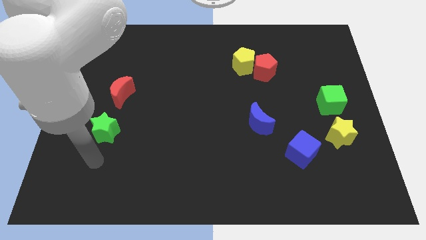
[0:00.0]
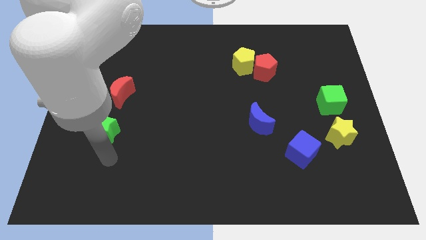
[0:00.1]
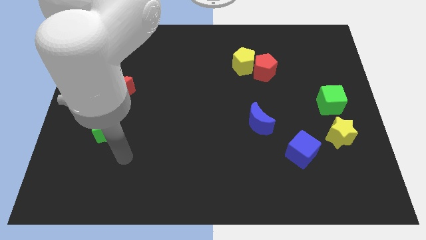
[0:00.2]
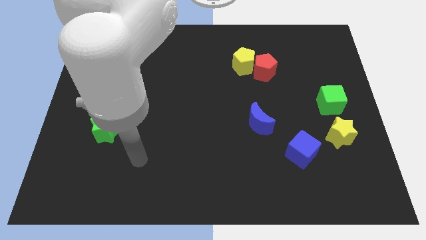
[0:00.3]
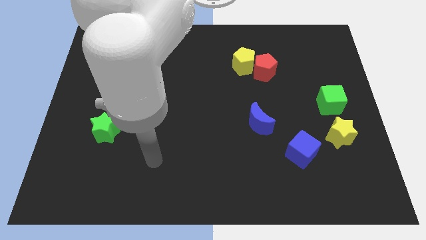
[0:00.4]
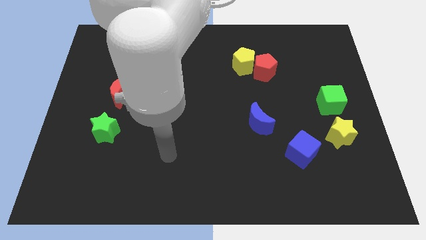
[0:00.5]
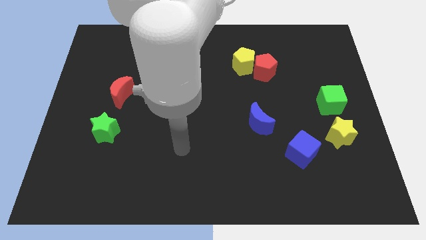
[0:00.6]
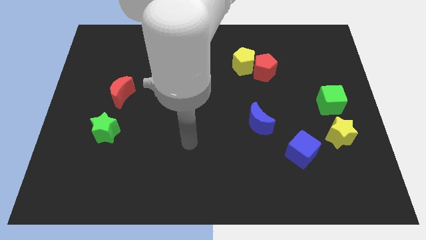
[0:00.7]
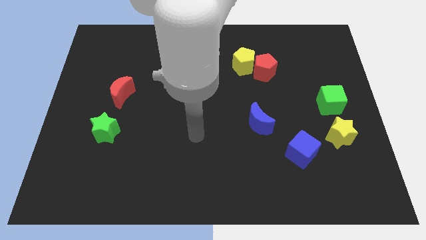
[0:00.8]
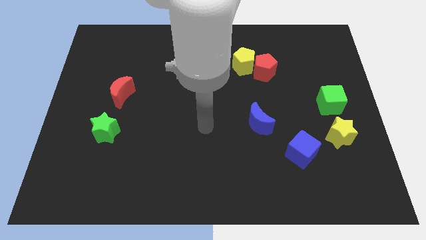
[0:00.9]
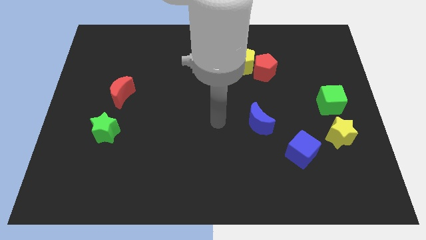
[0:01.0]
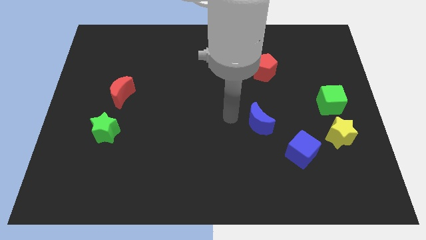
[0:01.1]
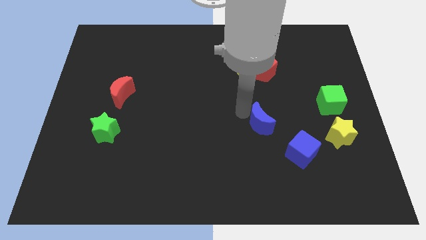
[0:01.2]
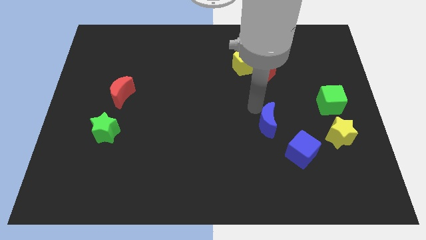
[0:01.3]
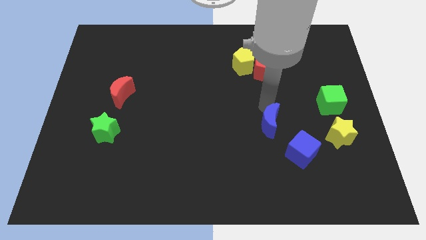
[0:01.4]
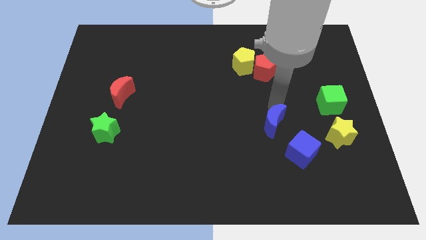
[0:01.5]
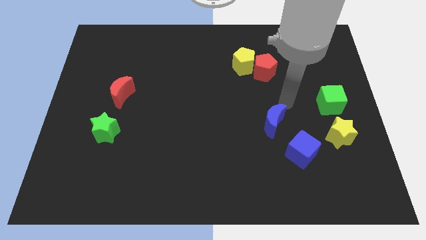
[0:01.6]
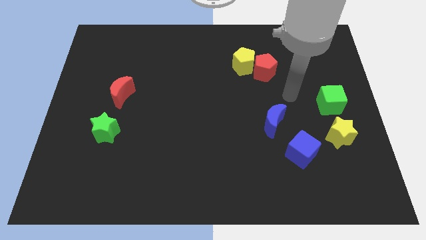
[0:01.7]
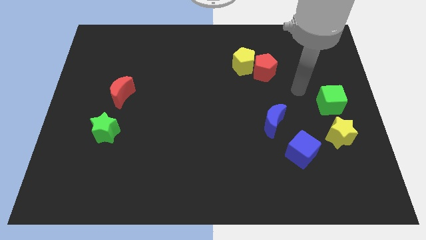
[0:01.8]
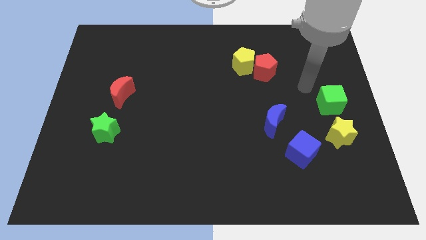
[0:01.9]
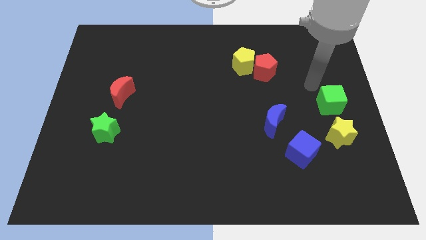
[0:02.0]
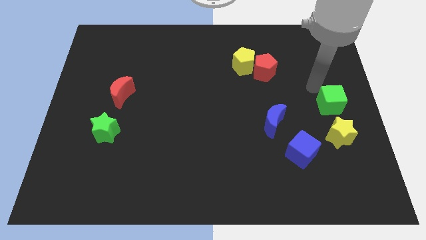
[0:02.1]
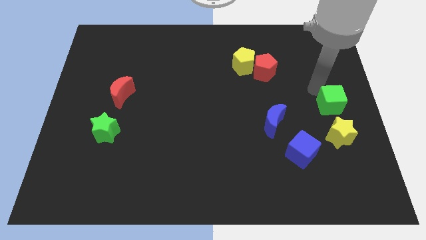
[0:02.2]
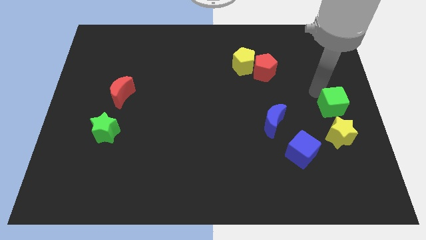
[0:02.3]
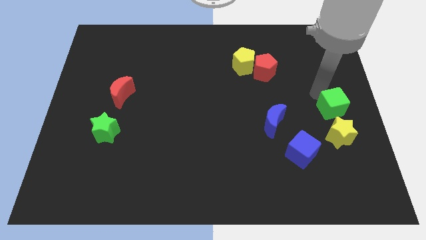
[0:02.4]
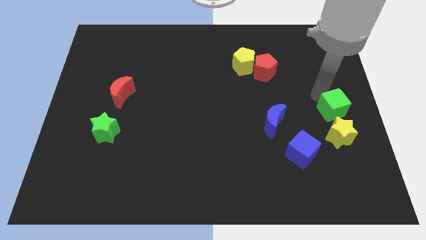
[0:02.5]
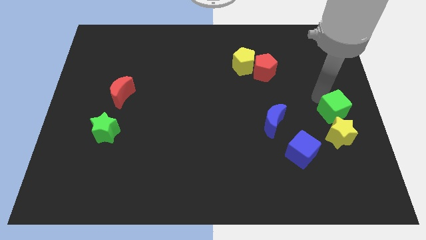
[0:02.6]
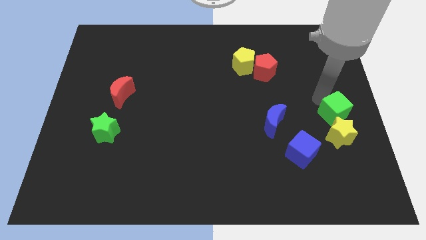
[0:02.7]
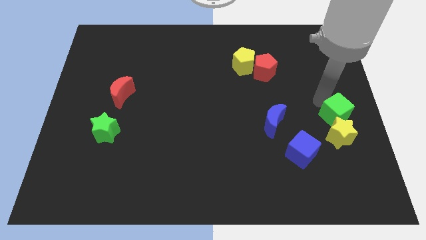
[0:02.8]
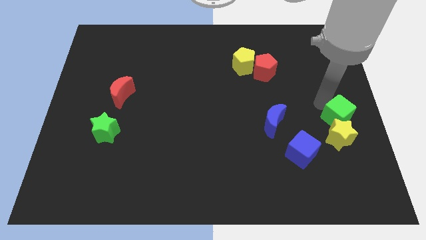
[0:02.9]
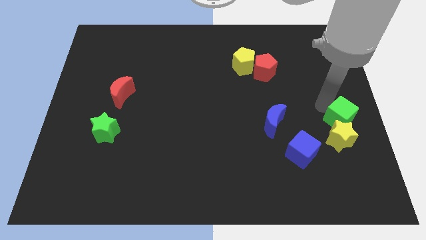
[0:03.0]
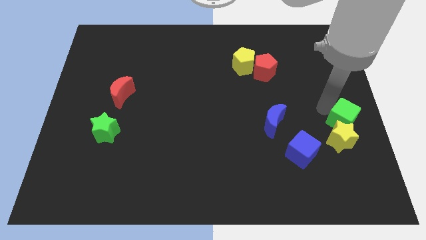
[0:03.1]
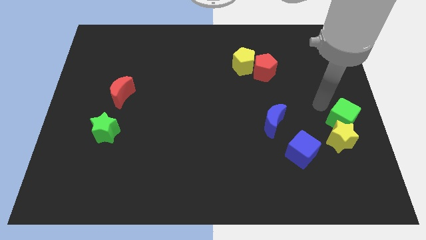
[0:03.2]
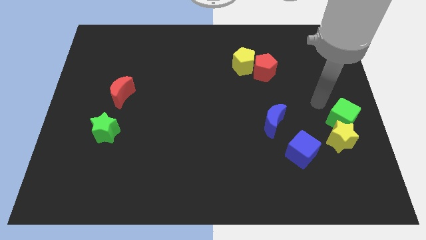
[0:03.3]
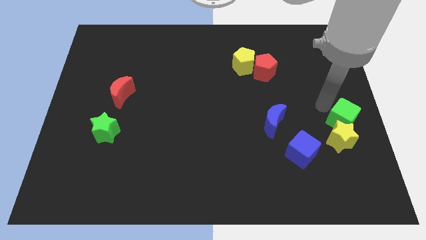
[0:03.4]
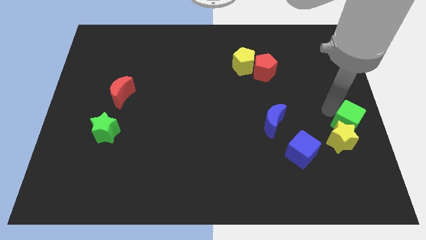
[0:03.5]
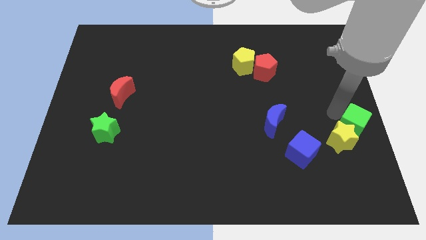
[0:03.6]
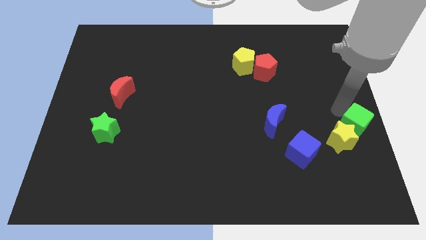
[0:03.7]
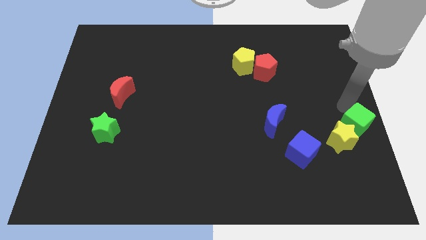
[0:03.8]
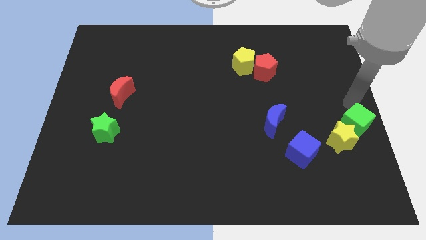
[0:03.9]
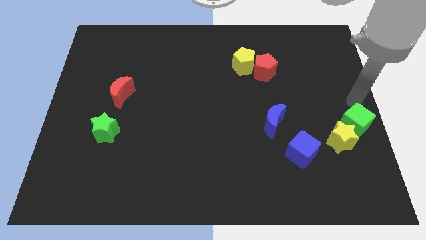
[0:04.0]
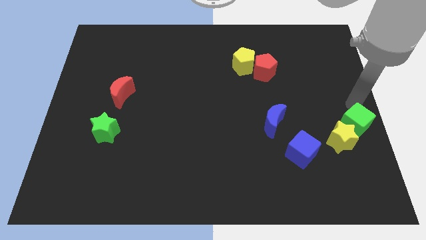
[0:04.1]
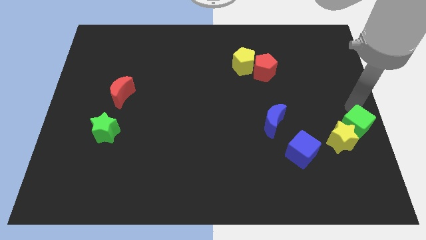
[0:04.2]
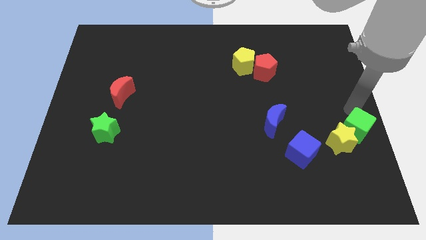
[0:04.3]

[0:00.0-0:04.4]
move the green cube somewhat downwards

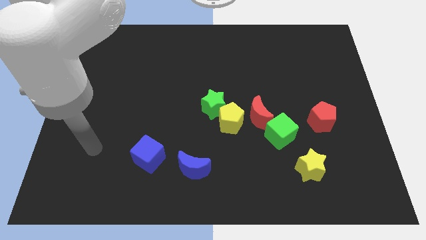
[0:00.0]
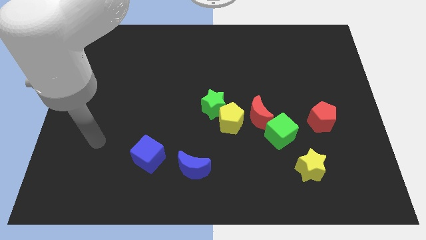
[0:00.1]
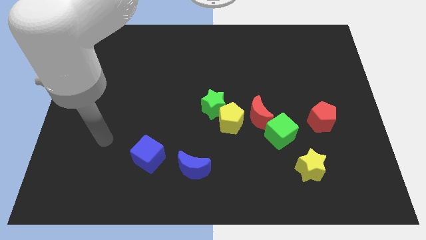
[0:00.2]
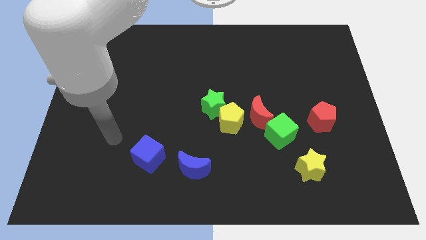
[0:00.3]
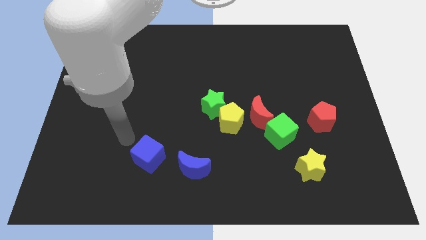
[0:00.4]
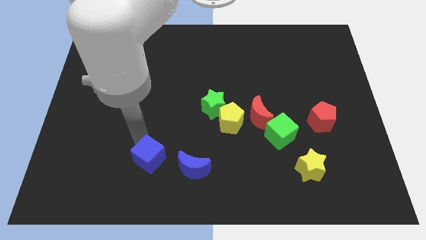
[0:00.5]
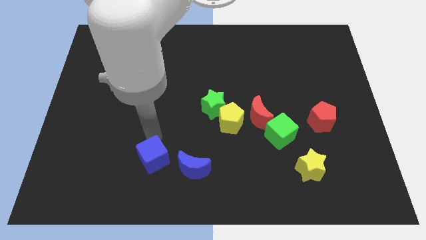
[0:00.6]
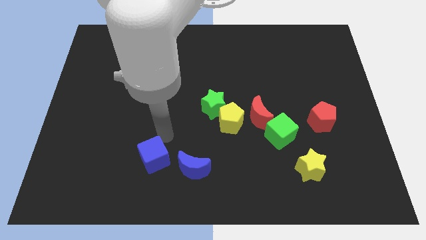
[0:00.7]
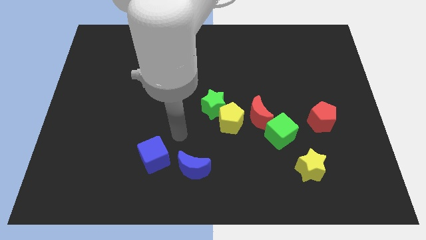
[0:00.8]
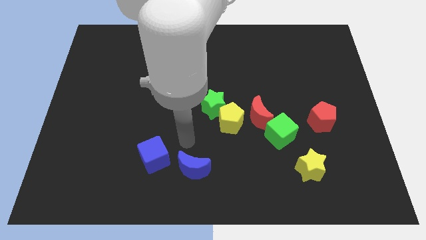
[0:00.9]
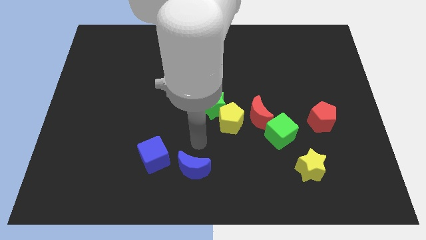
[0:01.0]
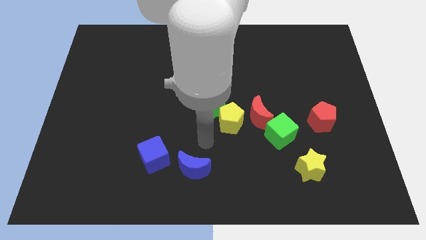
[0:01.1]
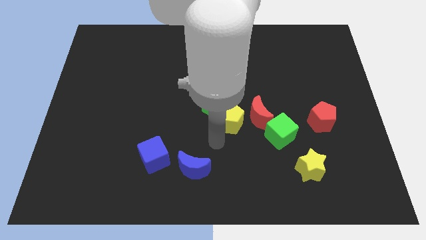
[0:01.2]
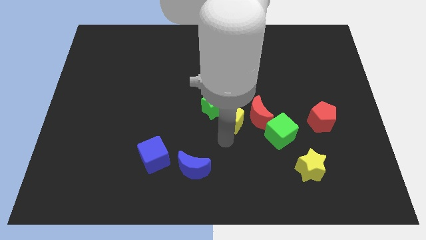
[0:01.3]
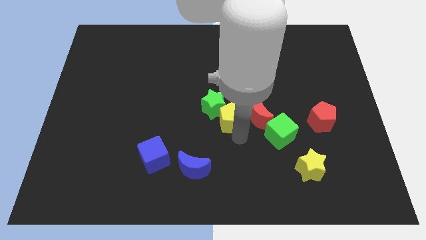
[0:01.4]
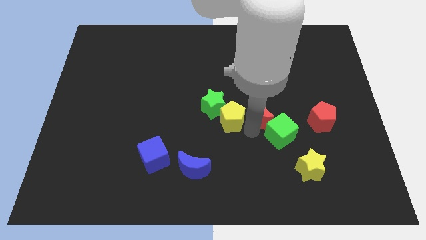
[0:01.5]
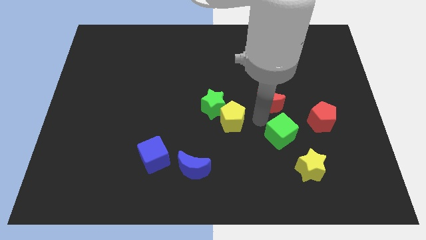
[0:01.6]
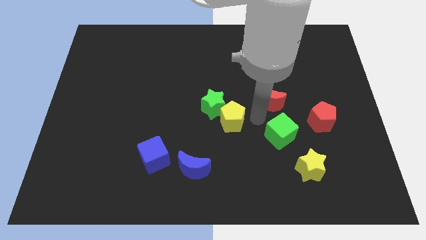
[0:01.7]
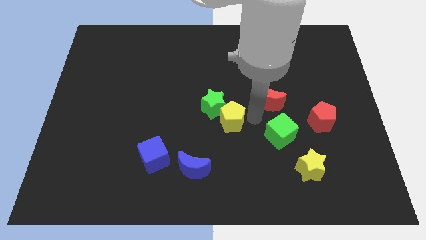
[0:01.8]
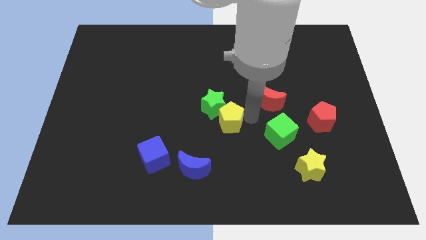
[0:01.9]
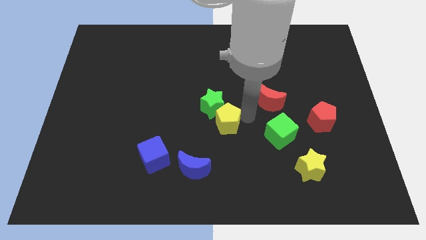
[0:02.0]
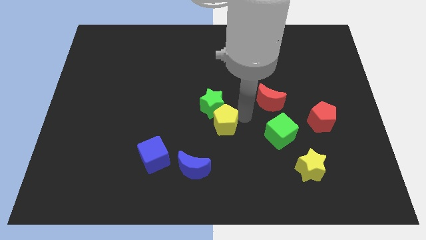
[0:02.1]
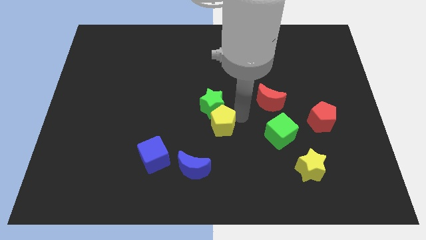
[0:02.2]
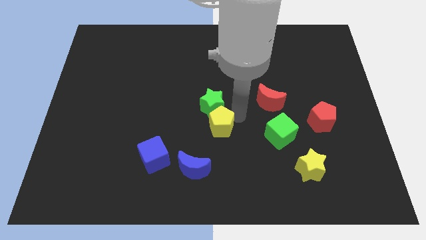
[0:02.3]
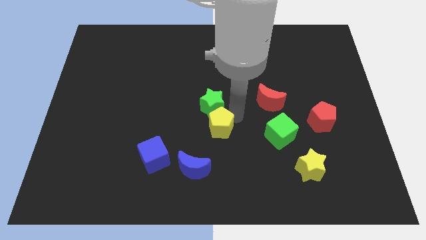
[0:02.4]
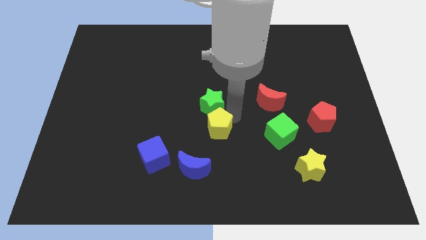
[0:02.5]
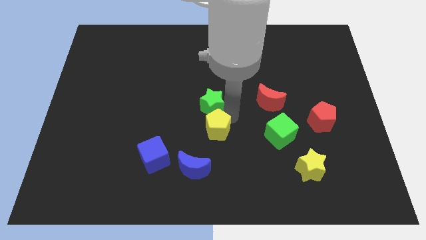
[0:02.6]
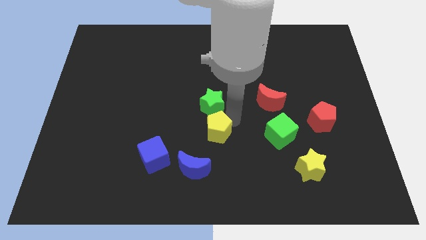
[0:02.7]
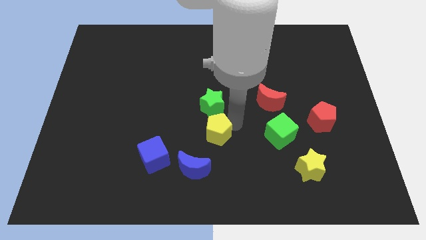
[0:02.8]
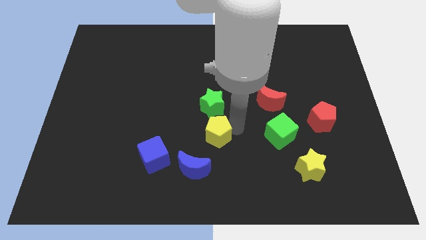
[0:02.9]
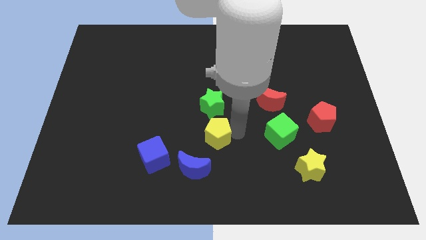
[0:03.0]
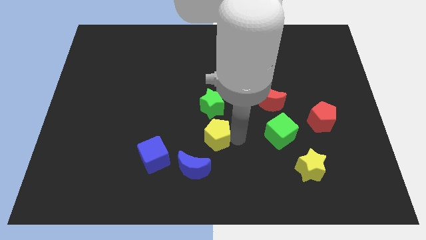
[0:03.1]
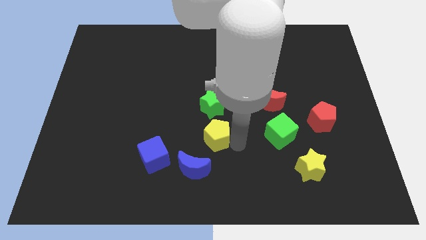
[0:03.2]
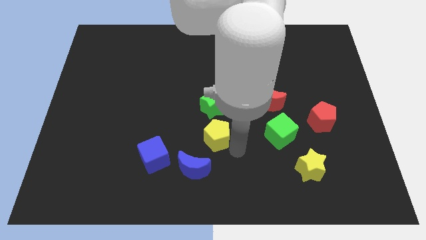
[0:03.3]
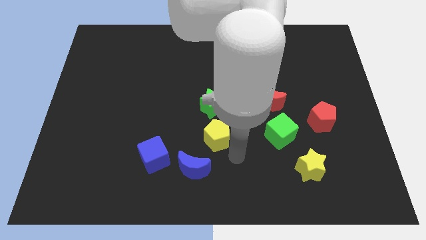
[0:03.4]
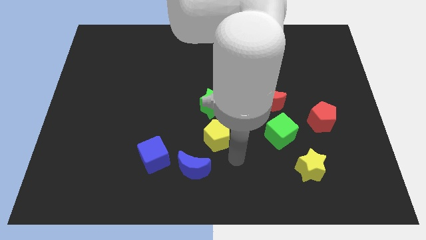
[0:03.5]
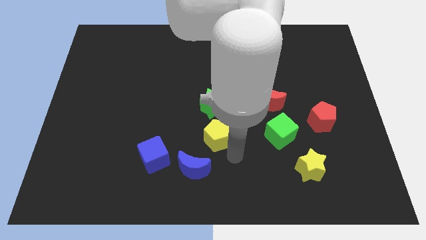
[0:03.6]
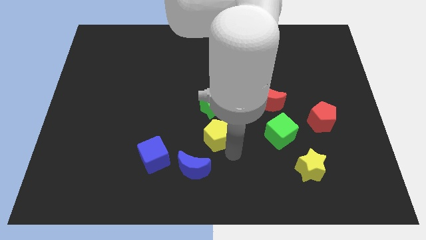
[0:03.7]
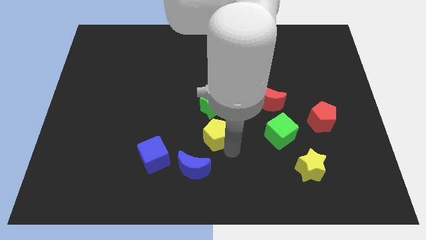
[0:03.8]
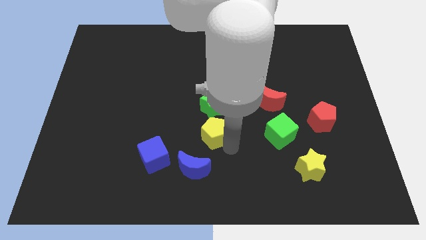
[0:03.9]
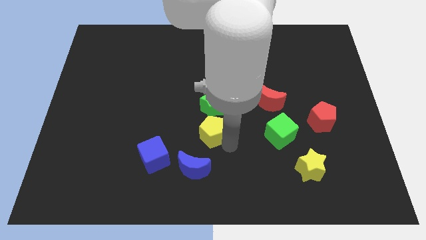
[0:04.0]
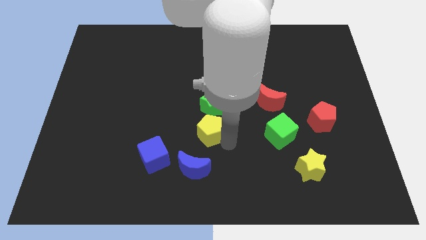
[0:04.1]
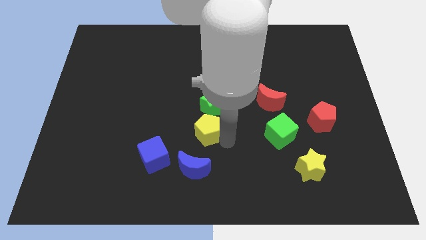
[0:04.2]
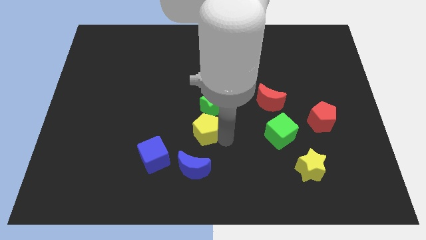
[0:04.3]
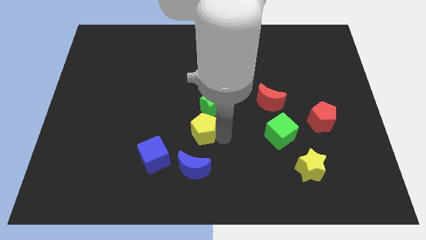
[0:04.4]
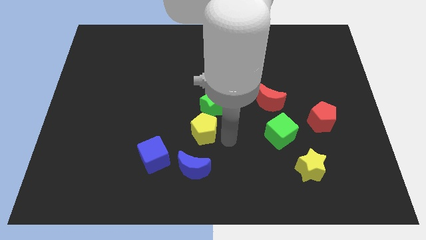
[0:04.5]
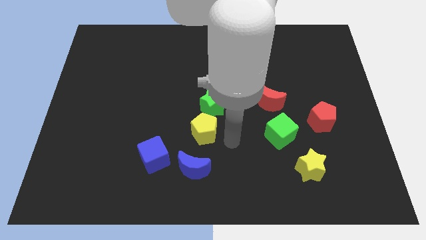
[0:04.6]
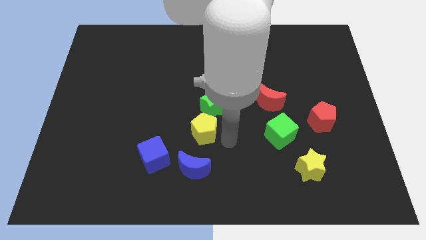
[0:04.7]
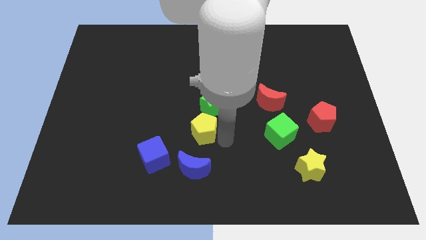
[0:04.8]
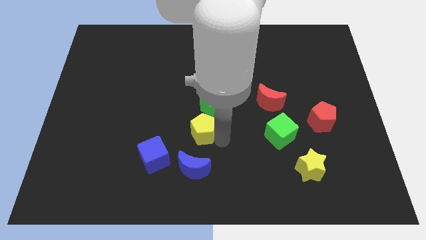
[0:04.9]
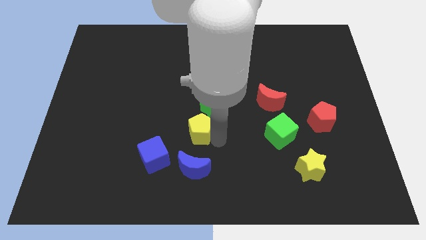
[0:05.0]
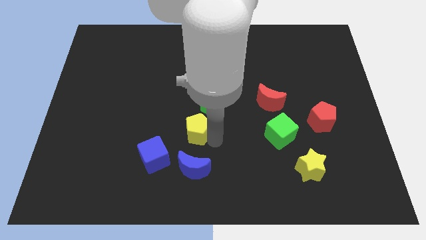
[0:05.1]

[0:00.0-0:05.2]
push the yellow pentagon to the left a bit
